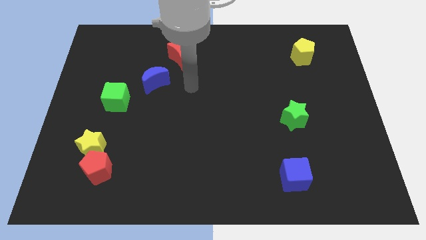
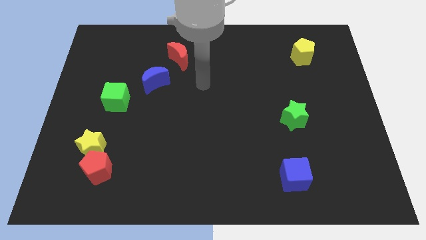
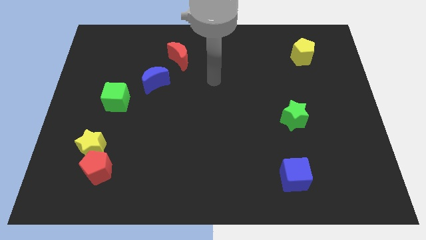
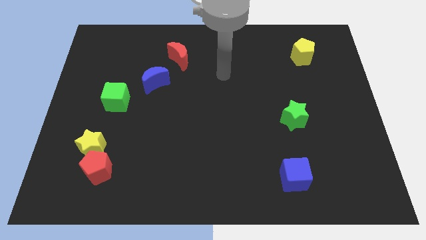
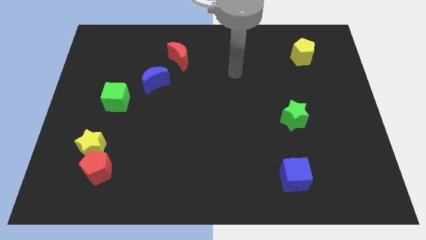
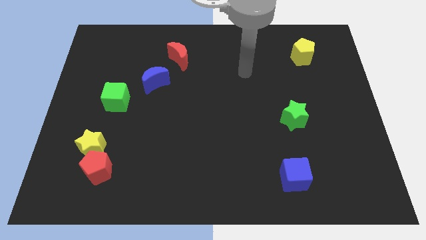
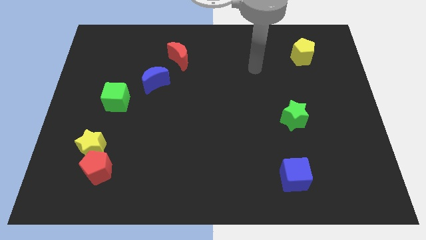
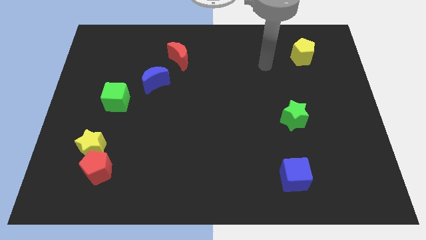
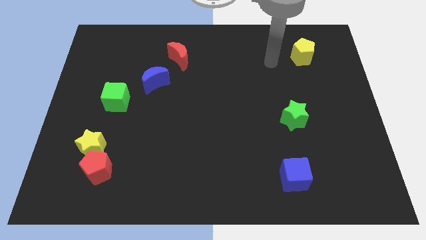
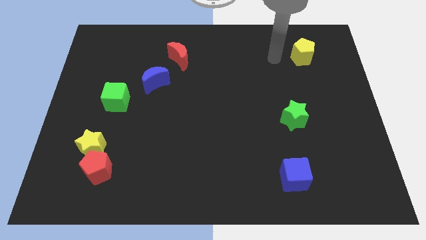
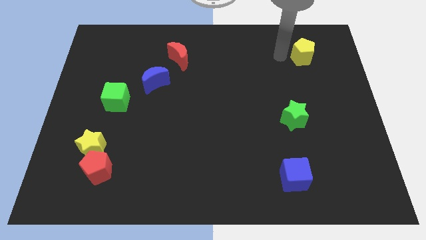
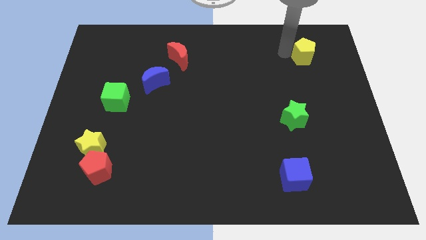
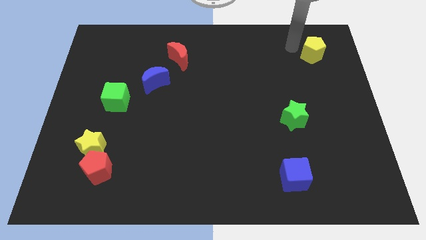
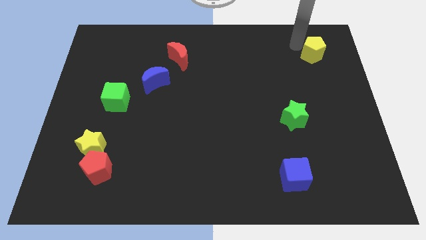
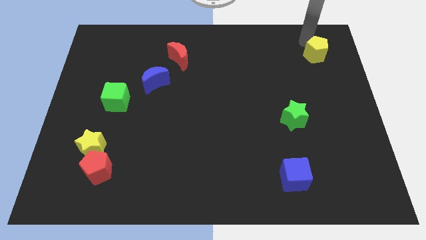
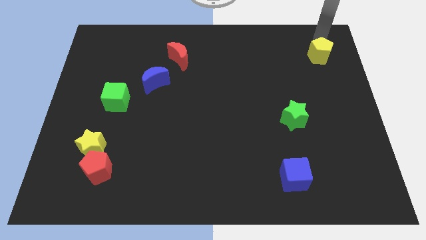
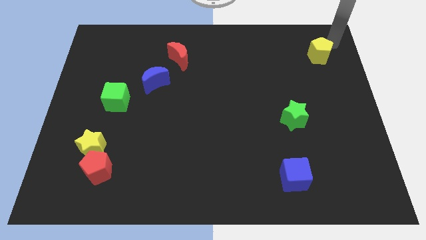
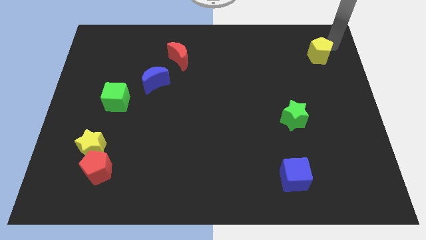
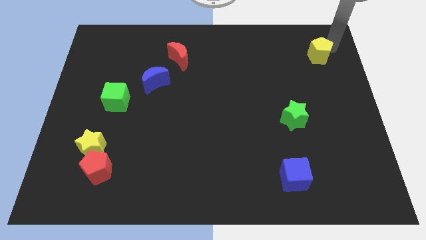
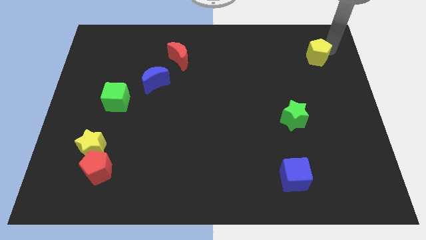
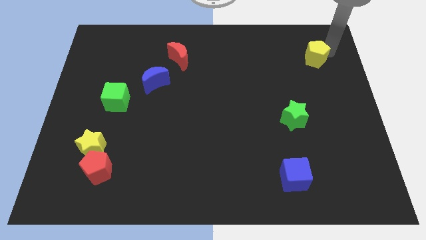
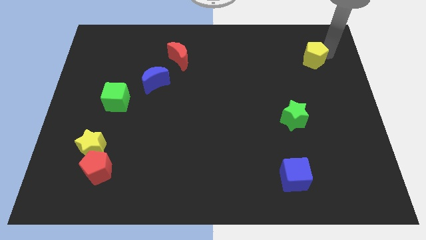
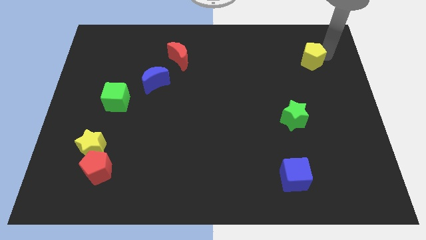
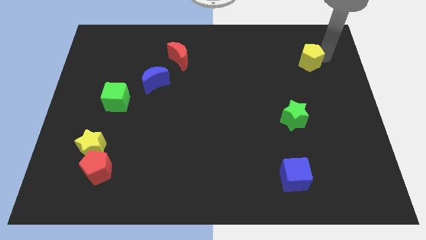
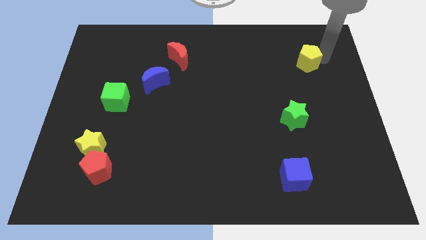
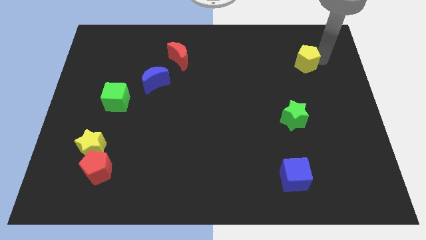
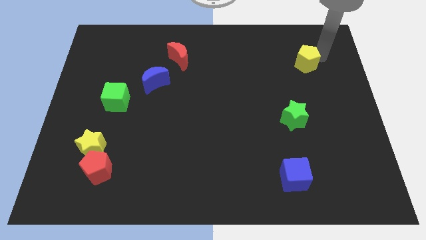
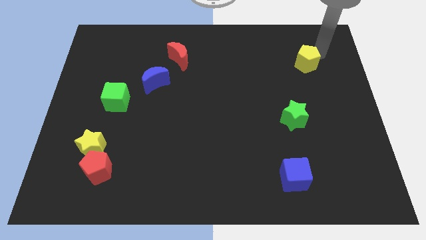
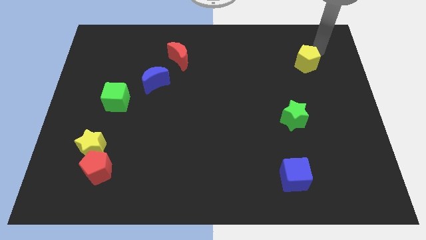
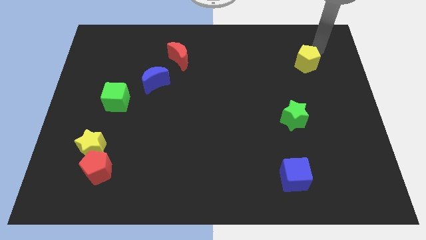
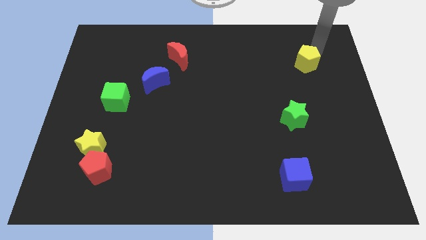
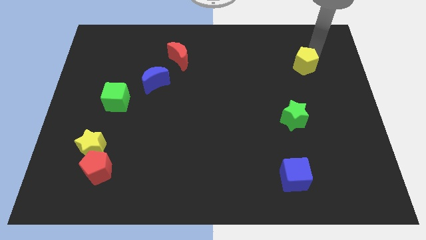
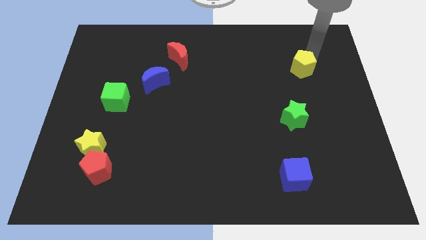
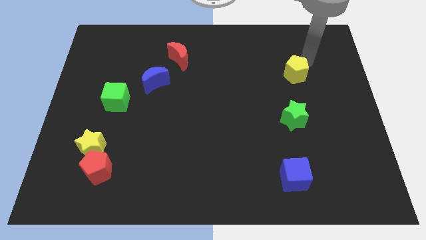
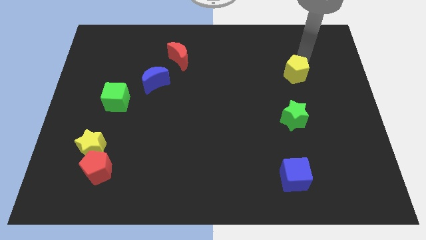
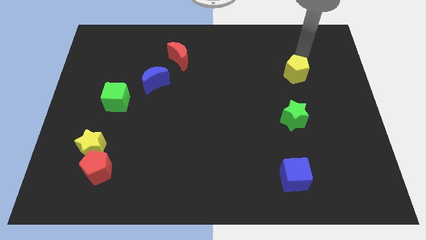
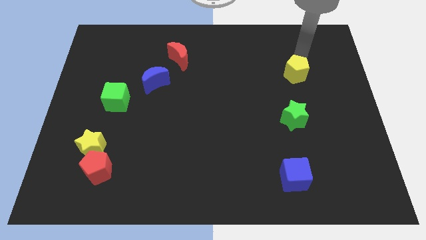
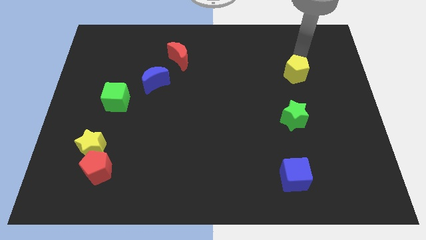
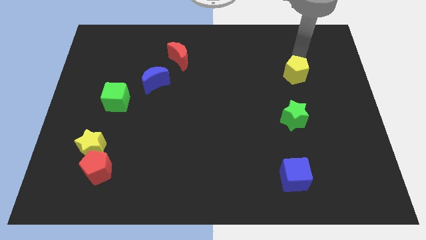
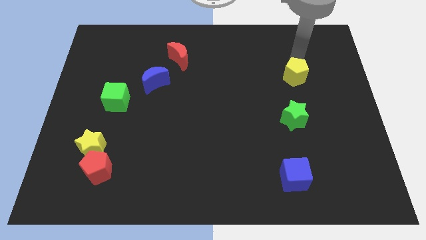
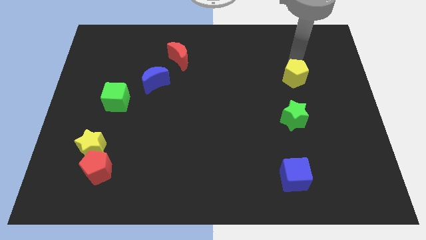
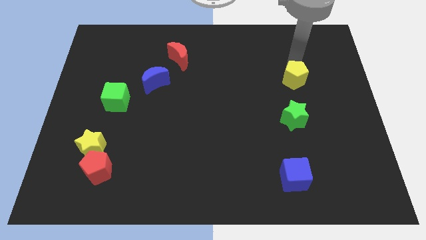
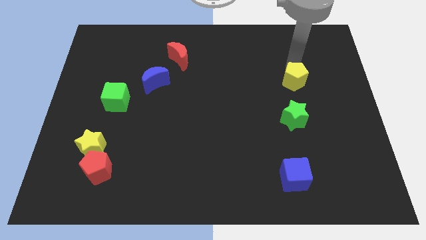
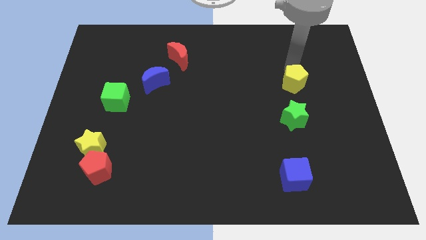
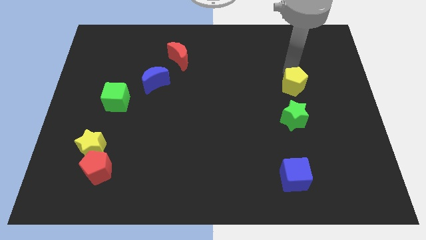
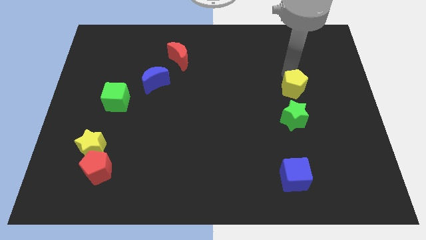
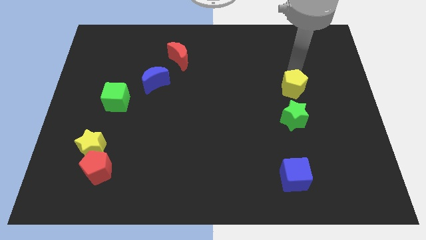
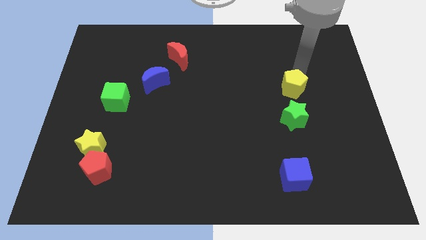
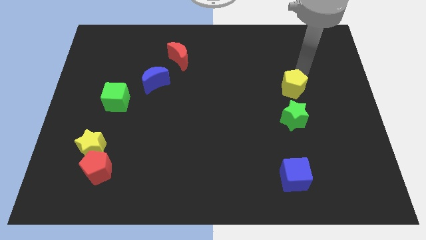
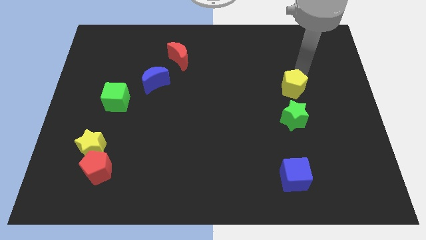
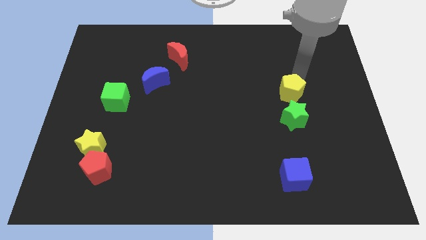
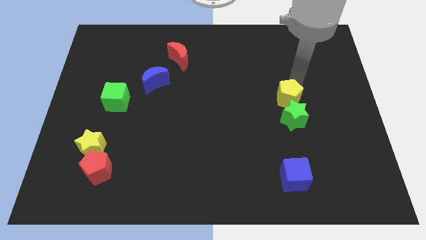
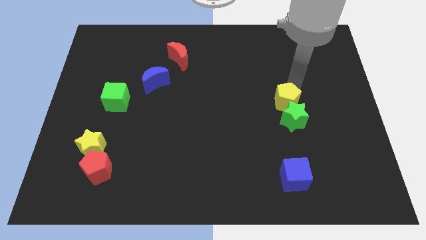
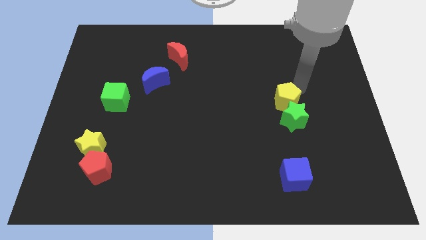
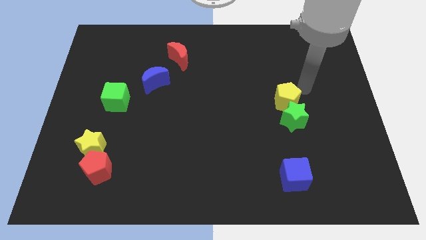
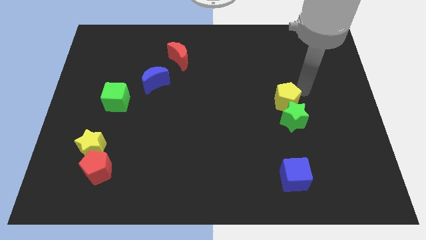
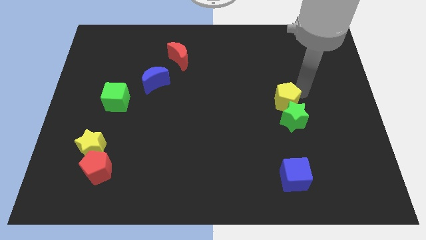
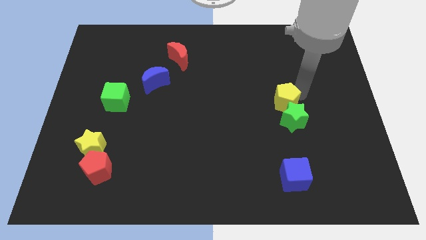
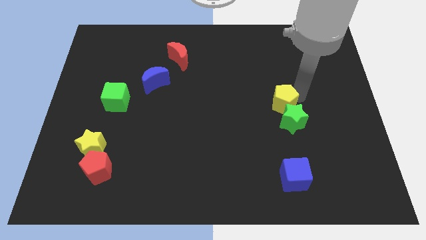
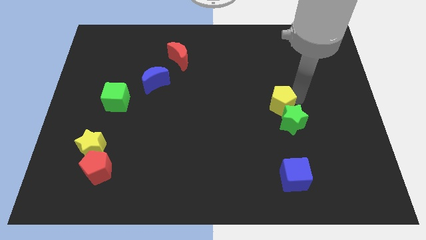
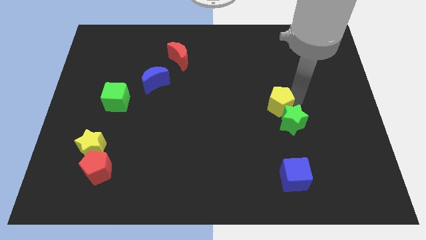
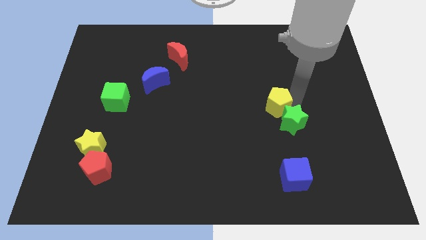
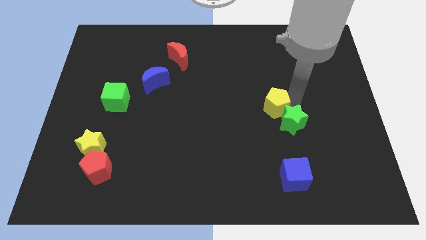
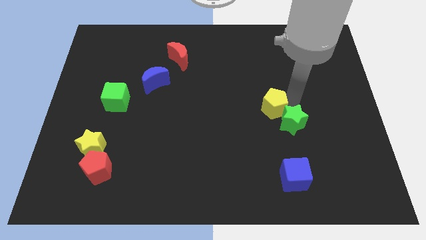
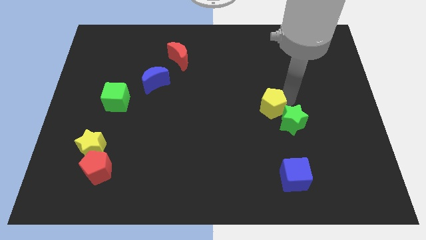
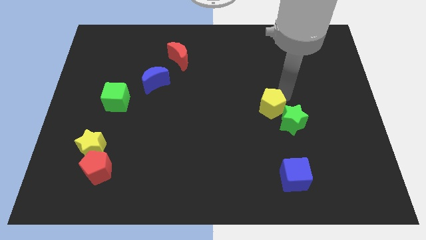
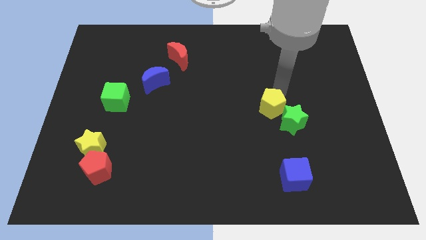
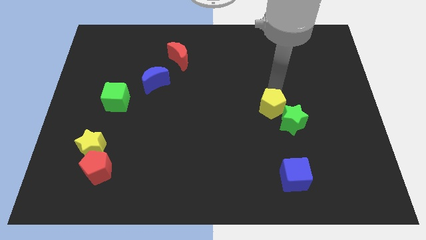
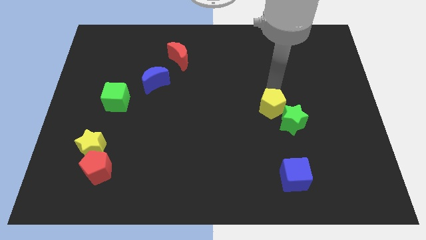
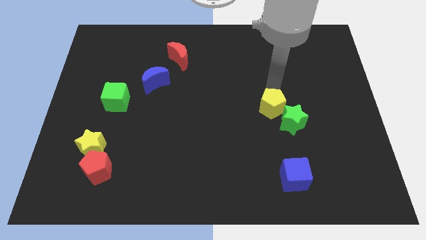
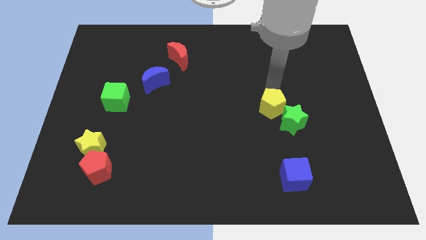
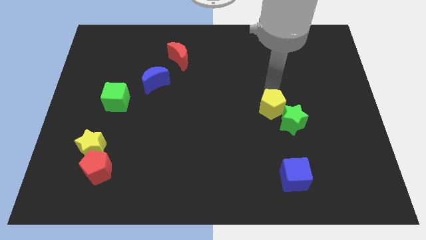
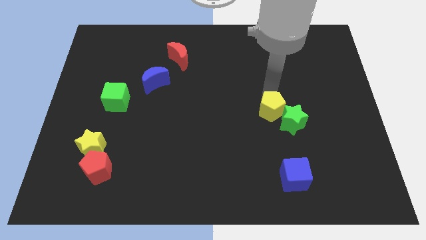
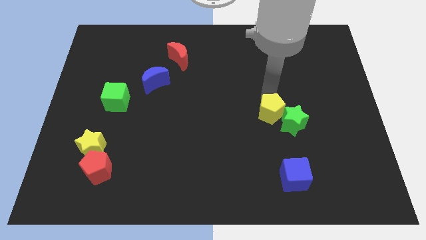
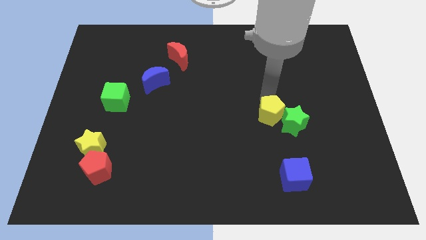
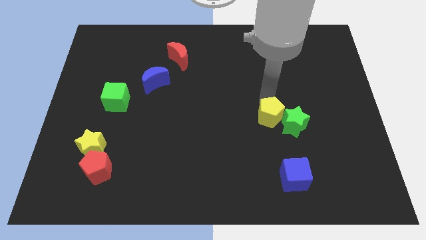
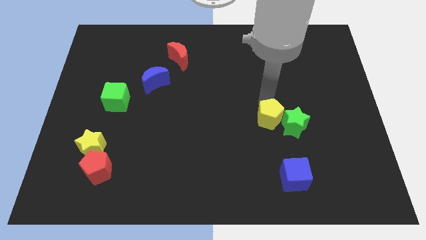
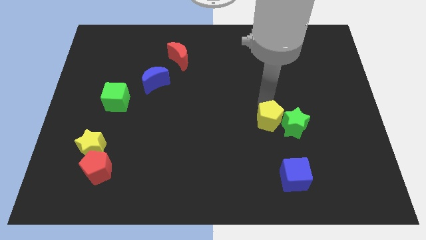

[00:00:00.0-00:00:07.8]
slide the yellow pentagon above the blue cube
